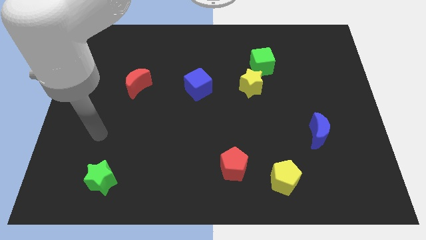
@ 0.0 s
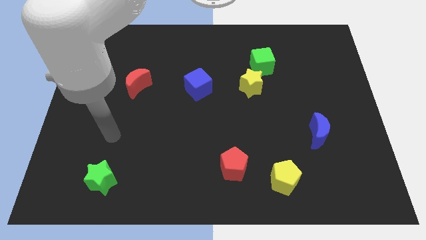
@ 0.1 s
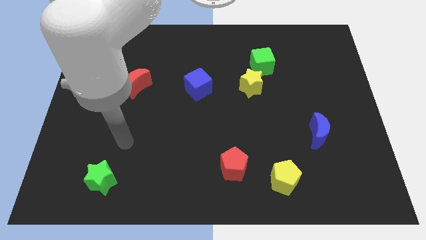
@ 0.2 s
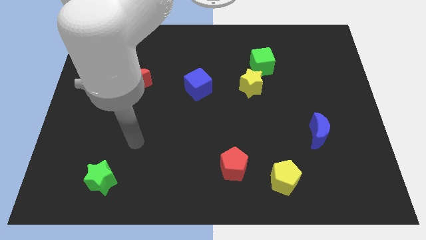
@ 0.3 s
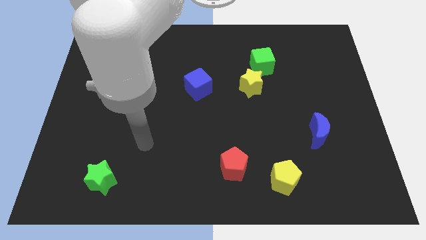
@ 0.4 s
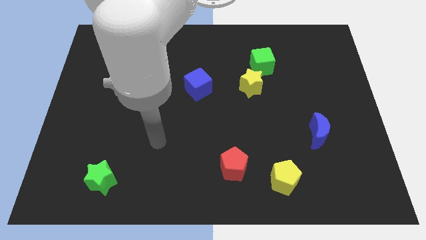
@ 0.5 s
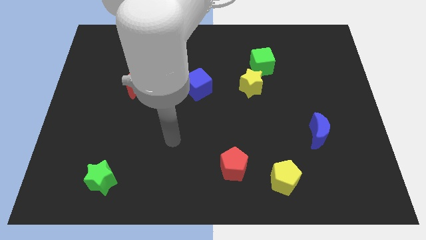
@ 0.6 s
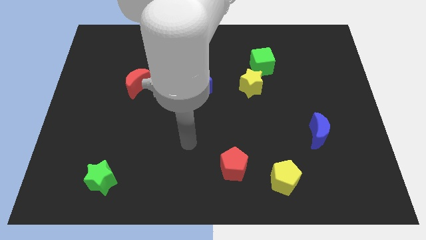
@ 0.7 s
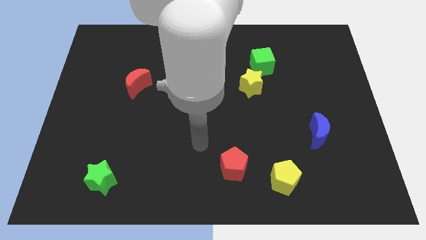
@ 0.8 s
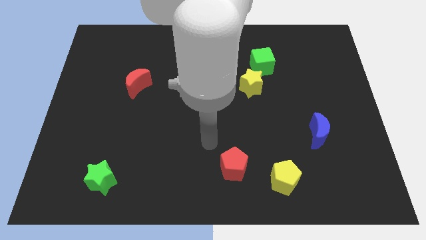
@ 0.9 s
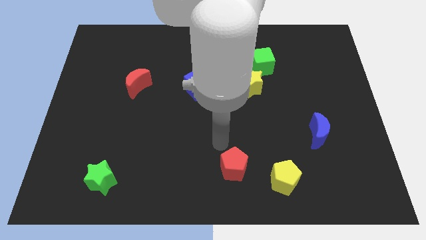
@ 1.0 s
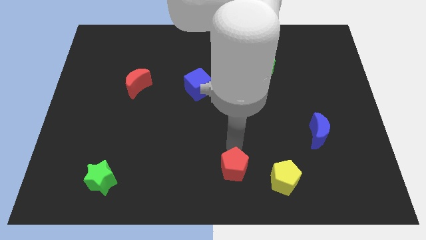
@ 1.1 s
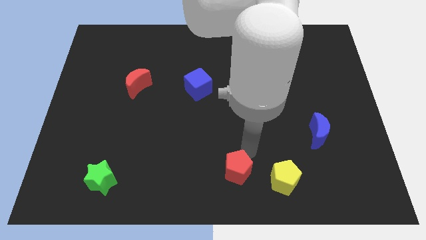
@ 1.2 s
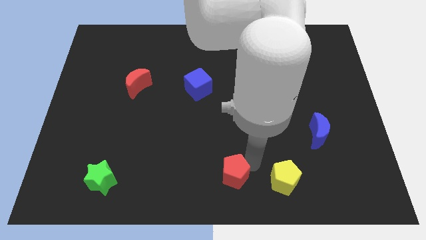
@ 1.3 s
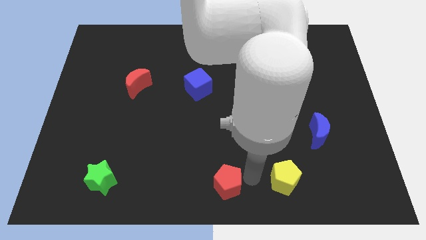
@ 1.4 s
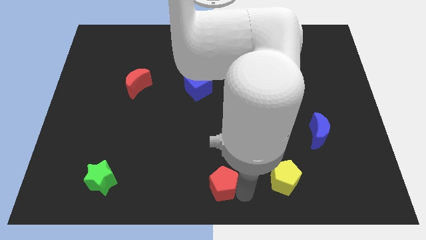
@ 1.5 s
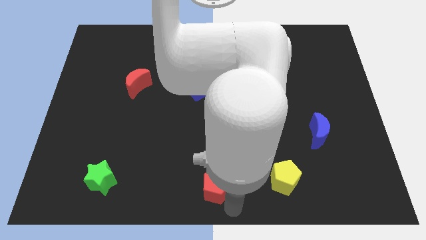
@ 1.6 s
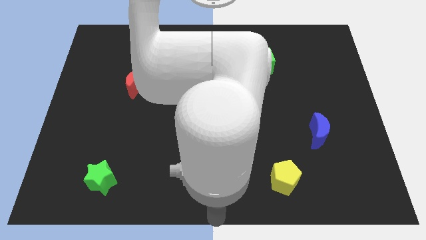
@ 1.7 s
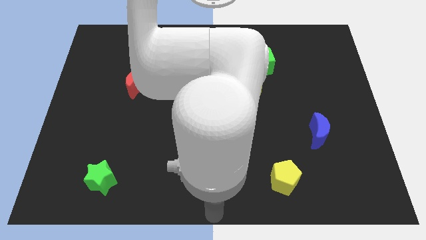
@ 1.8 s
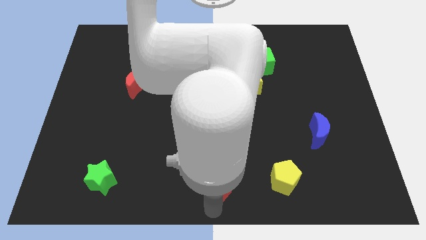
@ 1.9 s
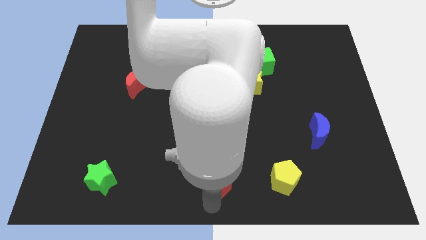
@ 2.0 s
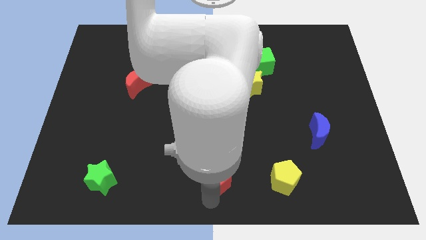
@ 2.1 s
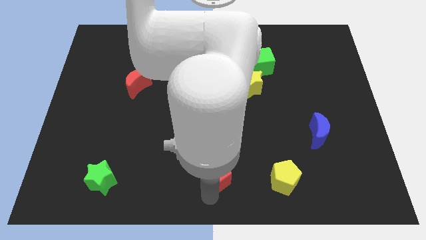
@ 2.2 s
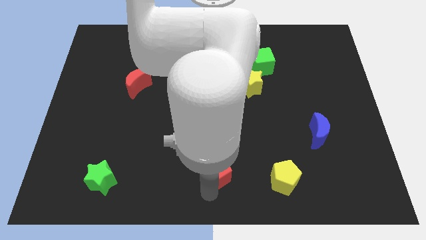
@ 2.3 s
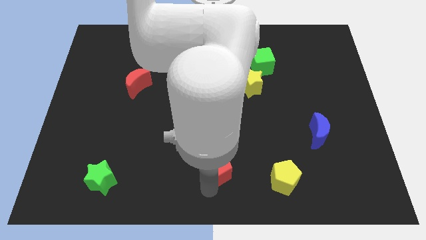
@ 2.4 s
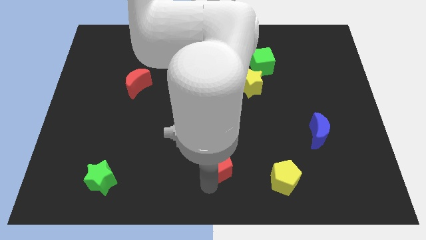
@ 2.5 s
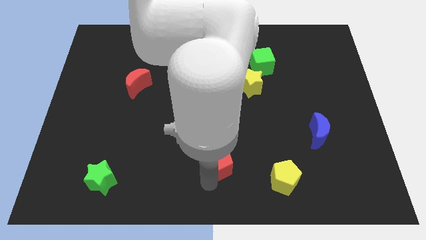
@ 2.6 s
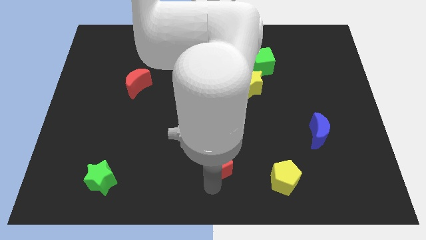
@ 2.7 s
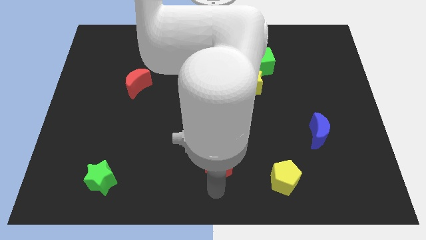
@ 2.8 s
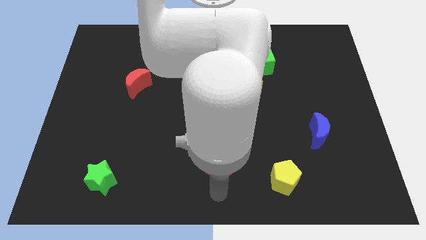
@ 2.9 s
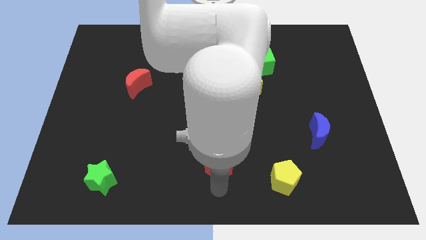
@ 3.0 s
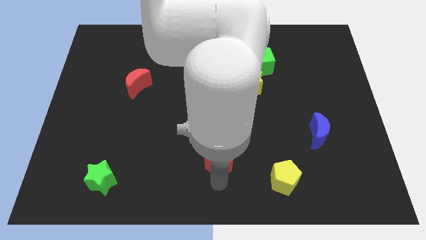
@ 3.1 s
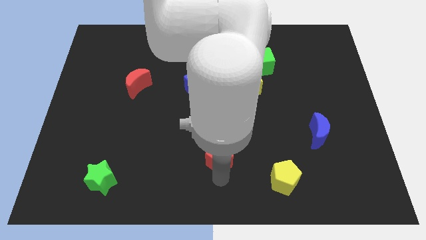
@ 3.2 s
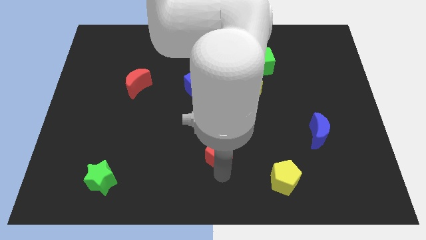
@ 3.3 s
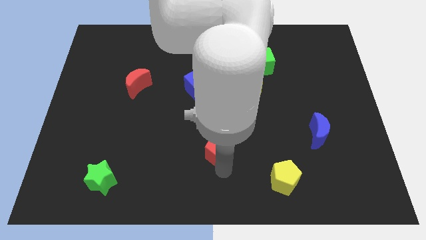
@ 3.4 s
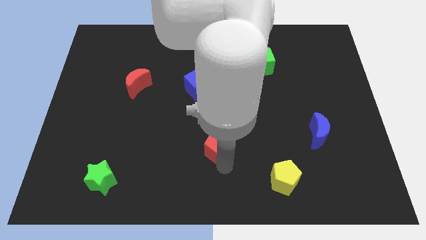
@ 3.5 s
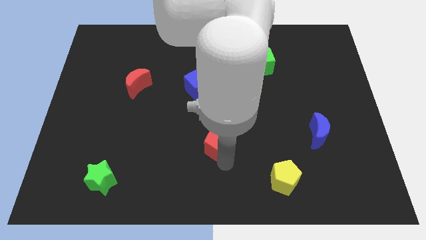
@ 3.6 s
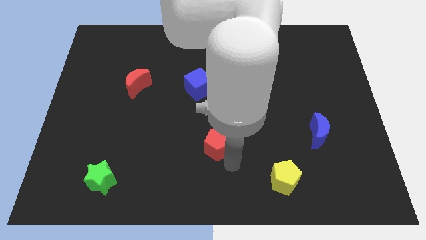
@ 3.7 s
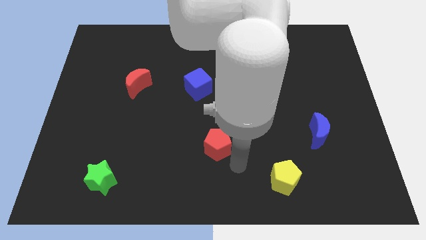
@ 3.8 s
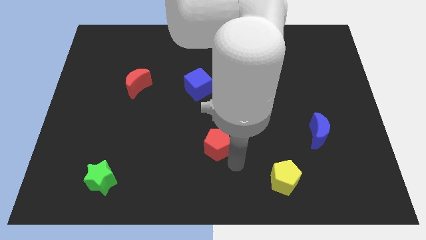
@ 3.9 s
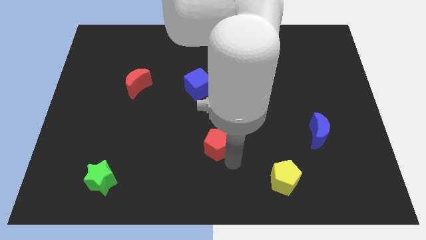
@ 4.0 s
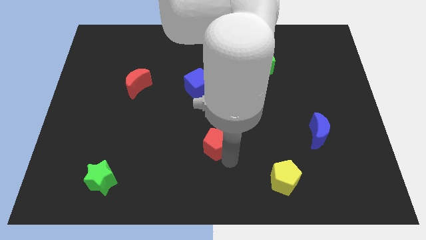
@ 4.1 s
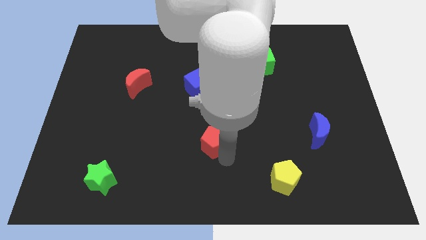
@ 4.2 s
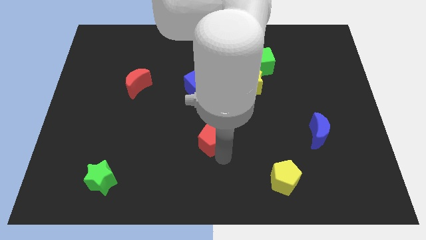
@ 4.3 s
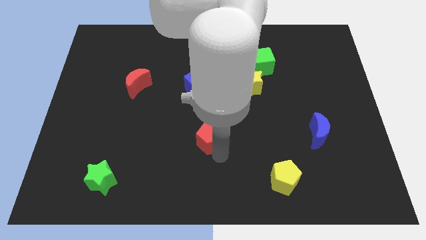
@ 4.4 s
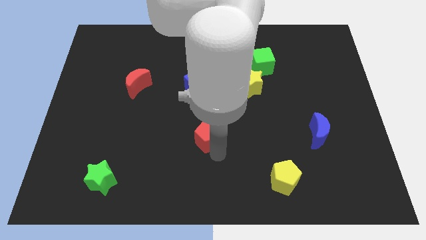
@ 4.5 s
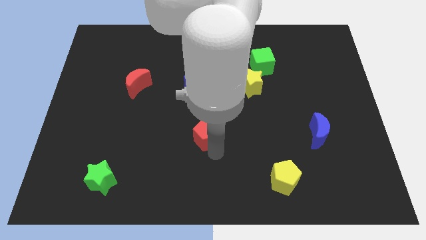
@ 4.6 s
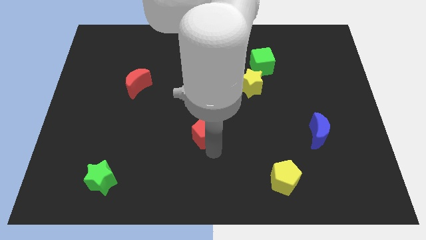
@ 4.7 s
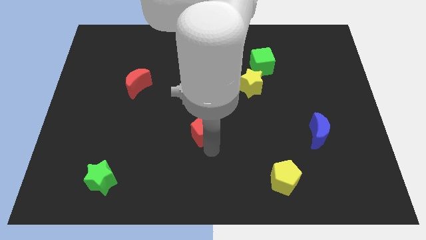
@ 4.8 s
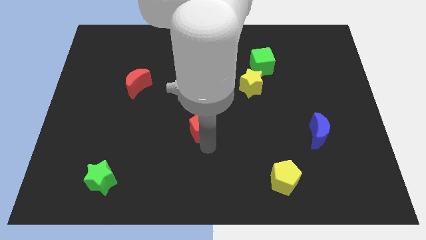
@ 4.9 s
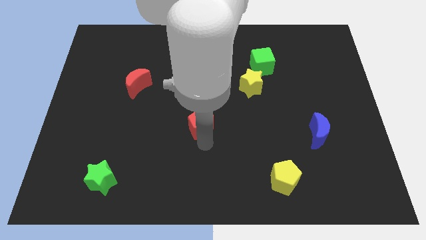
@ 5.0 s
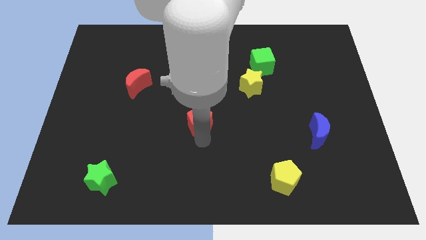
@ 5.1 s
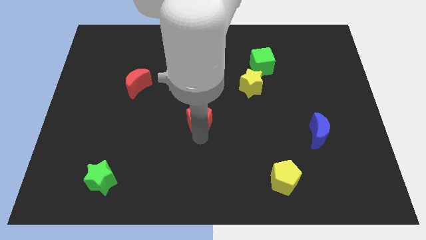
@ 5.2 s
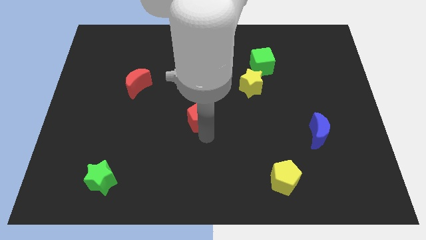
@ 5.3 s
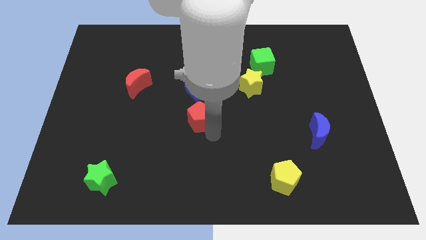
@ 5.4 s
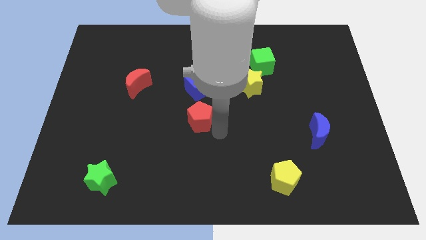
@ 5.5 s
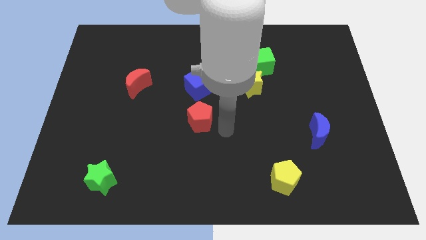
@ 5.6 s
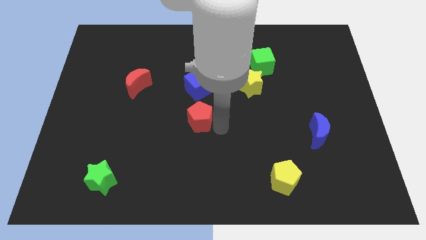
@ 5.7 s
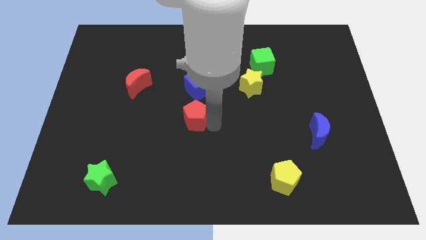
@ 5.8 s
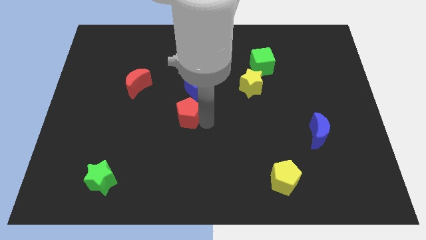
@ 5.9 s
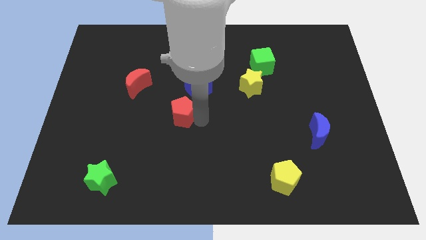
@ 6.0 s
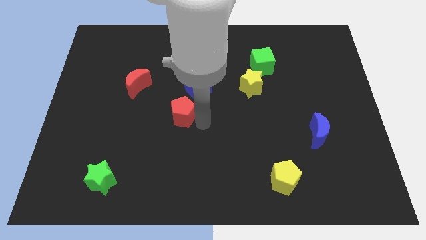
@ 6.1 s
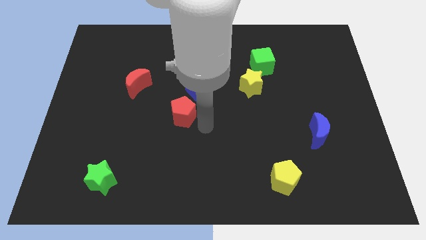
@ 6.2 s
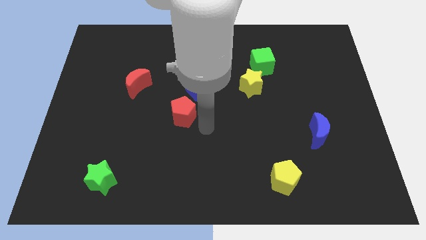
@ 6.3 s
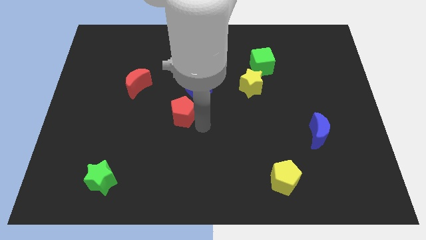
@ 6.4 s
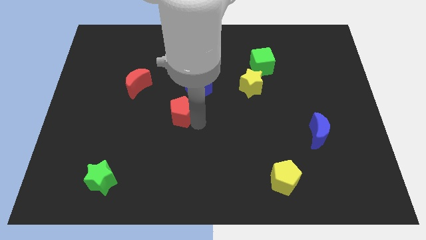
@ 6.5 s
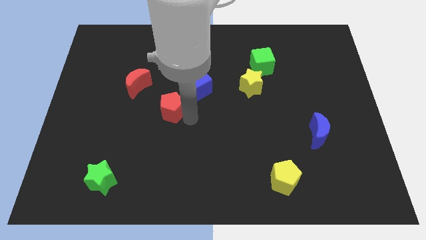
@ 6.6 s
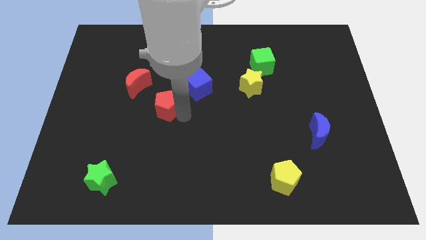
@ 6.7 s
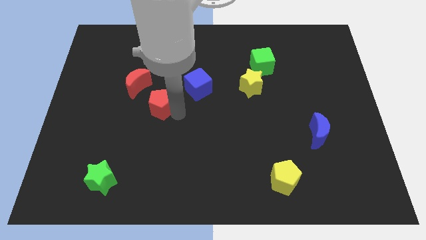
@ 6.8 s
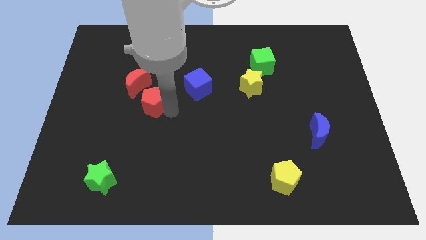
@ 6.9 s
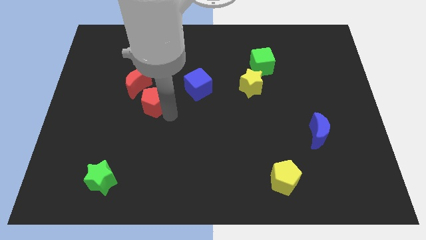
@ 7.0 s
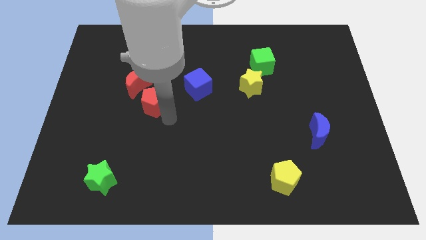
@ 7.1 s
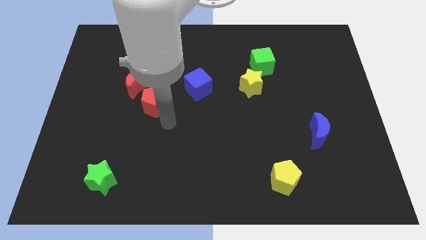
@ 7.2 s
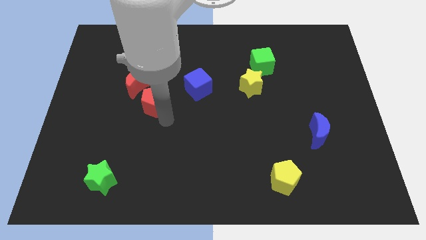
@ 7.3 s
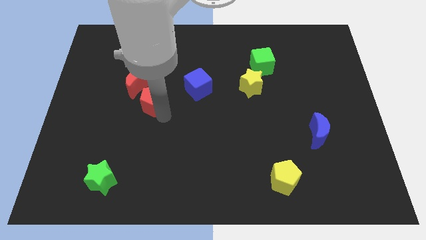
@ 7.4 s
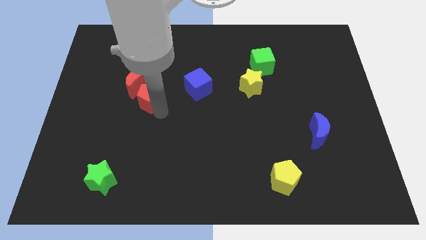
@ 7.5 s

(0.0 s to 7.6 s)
move the red pentagon to the red moon
